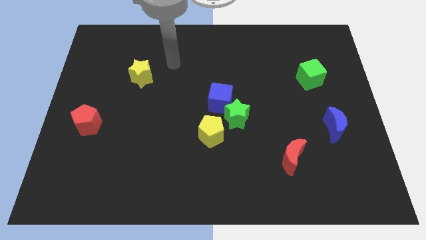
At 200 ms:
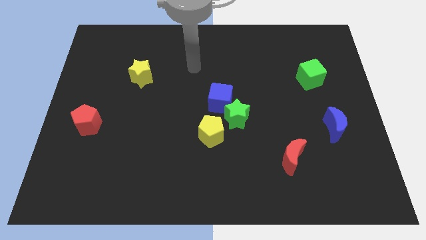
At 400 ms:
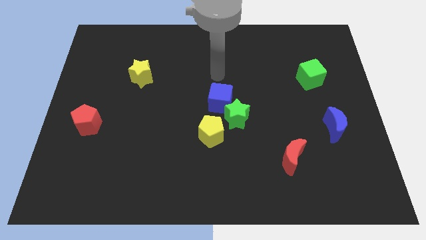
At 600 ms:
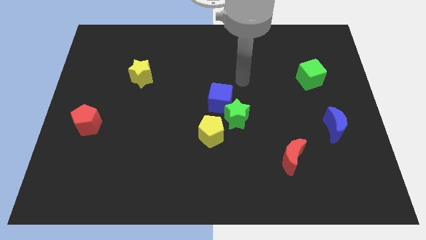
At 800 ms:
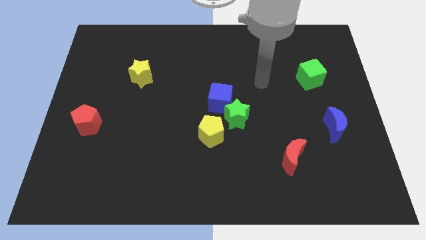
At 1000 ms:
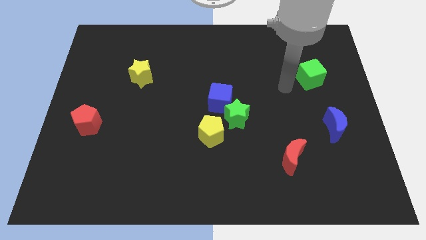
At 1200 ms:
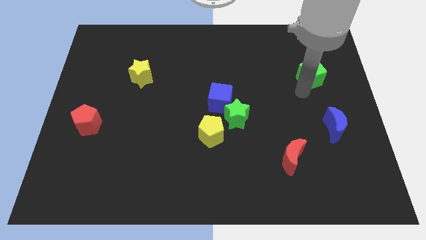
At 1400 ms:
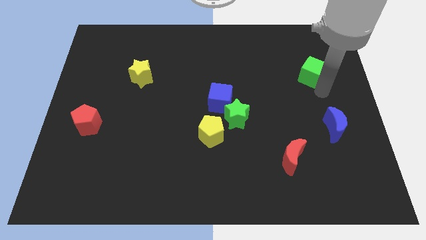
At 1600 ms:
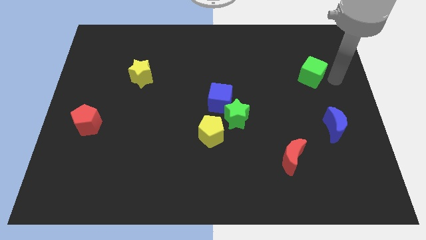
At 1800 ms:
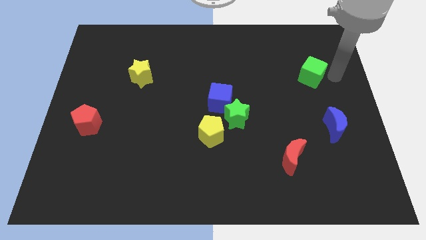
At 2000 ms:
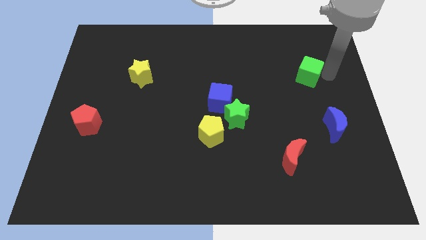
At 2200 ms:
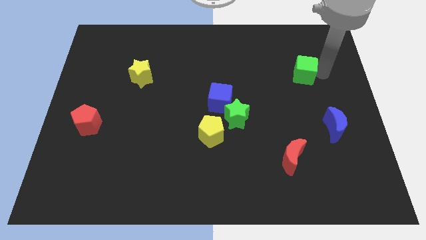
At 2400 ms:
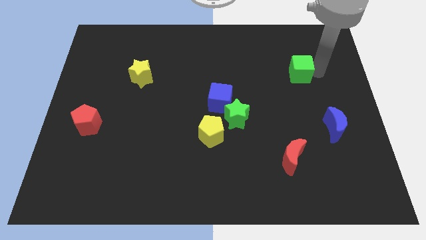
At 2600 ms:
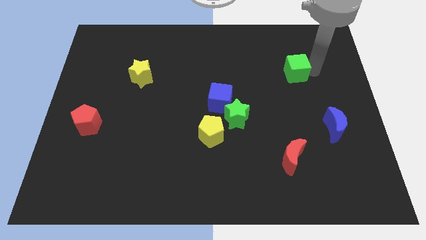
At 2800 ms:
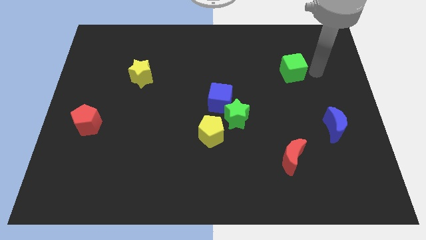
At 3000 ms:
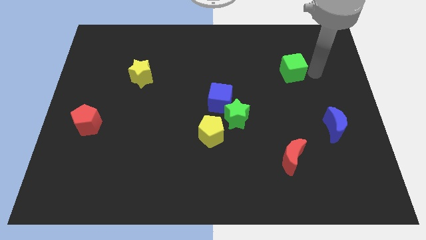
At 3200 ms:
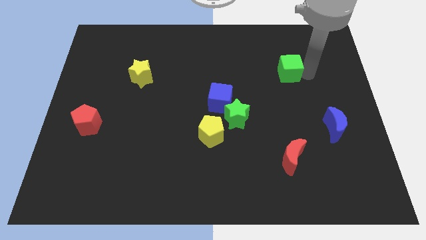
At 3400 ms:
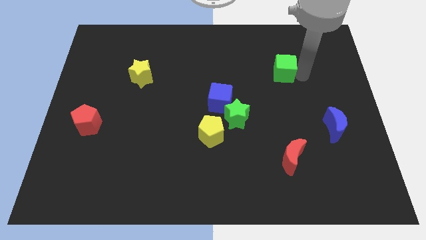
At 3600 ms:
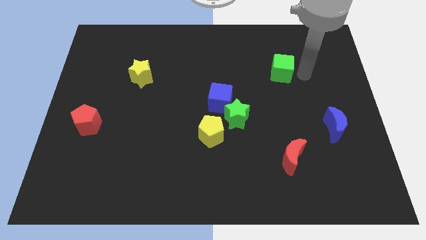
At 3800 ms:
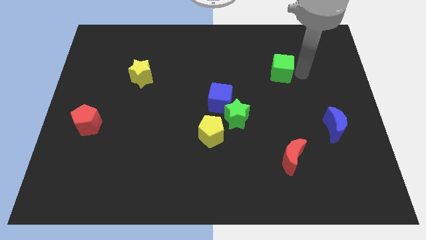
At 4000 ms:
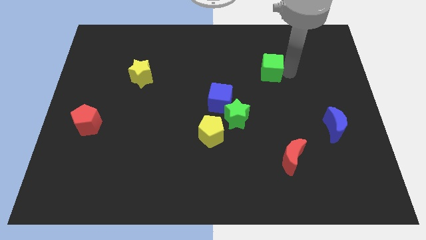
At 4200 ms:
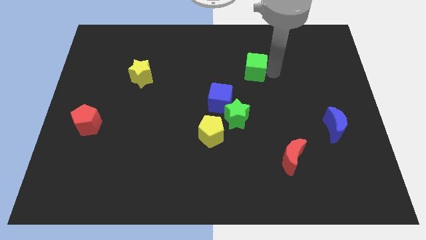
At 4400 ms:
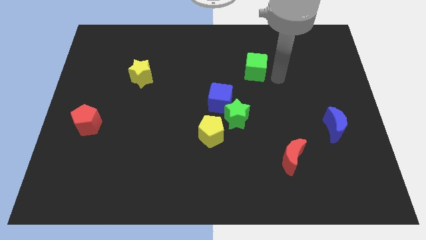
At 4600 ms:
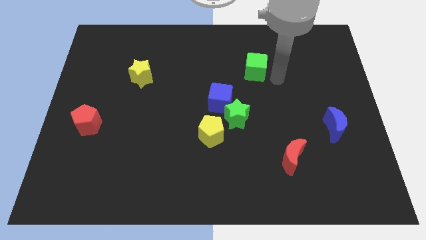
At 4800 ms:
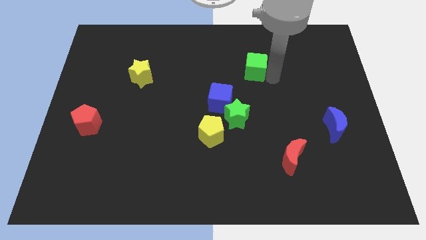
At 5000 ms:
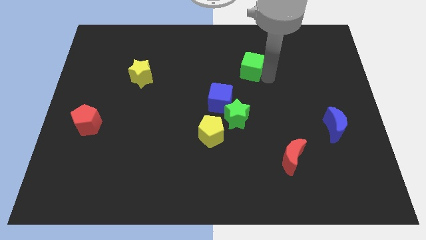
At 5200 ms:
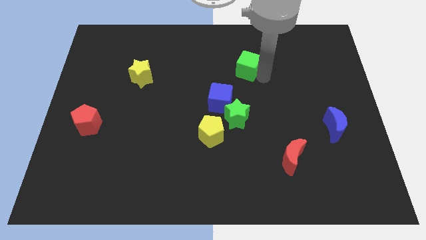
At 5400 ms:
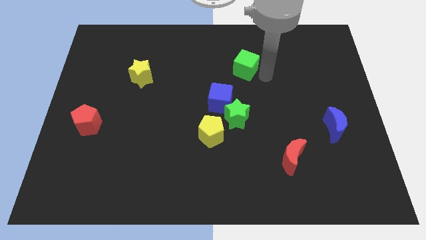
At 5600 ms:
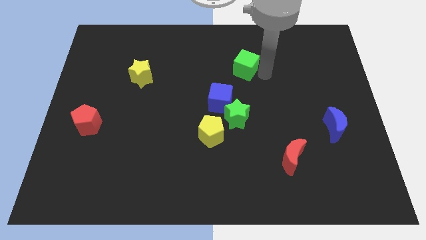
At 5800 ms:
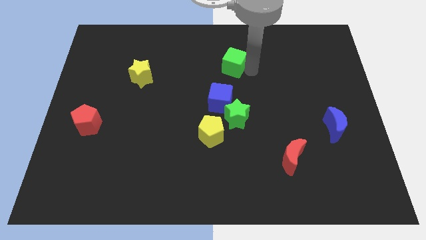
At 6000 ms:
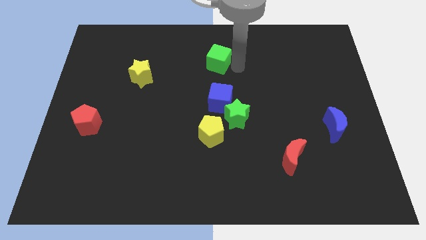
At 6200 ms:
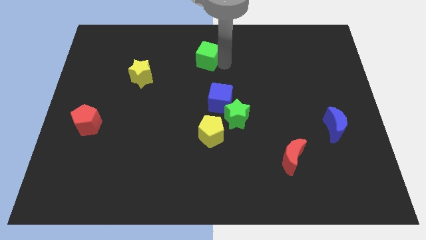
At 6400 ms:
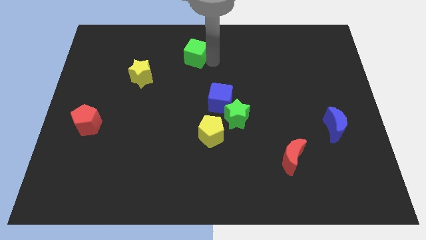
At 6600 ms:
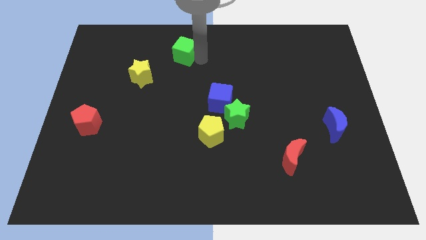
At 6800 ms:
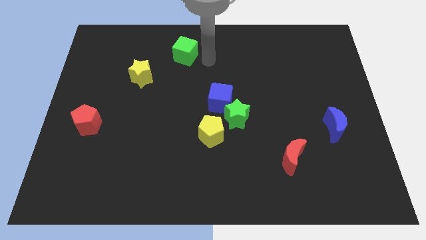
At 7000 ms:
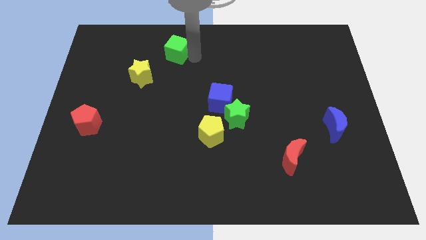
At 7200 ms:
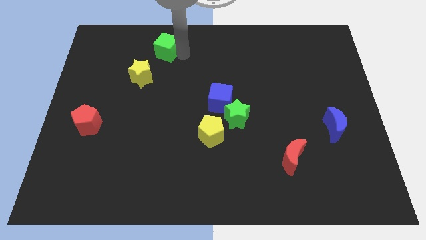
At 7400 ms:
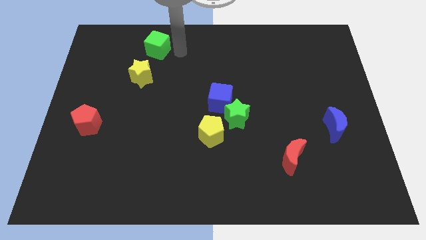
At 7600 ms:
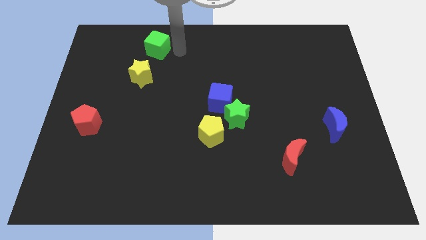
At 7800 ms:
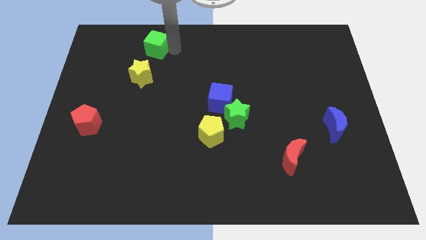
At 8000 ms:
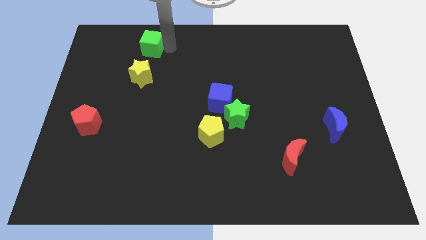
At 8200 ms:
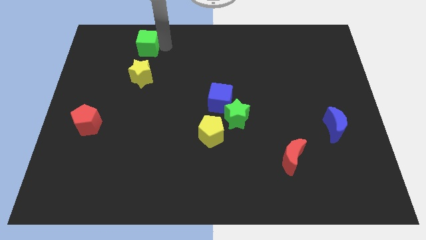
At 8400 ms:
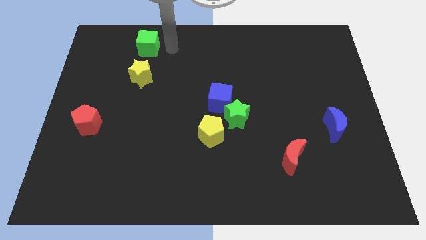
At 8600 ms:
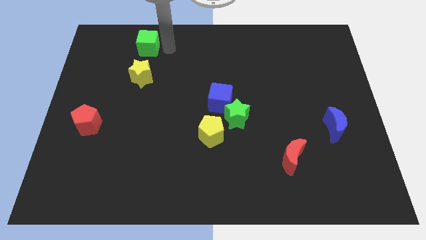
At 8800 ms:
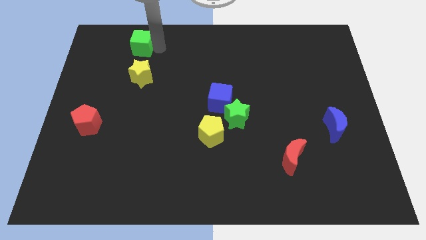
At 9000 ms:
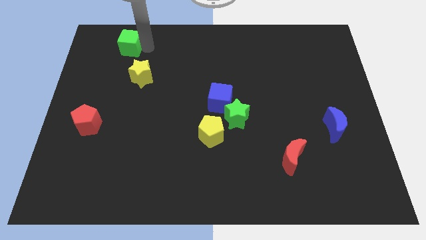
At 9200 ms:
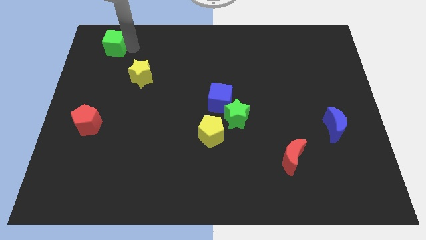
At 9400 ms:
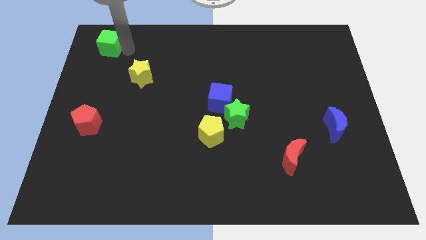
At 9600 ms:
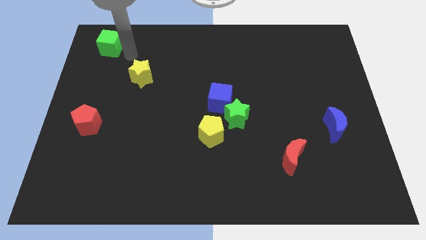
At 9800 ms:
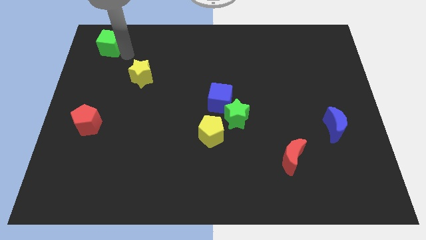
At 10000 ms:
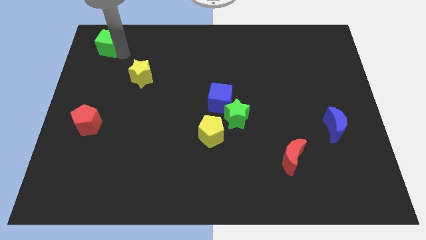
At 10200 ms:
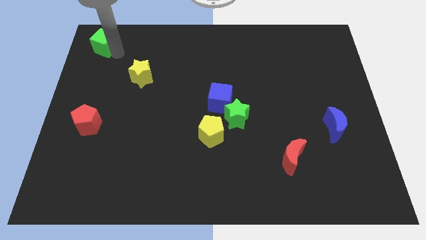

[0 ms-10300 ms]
put the green cube to the upper left corner

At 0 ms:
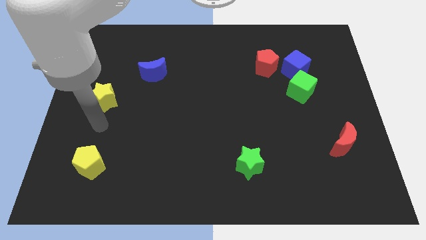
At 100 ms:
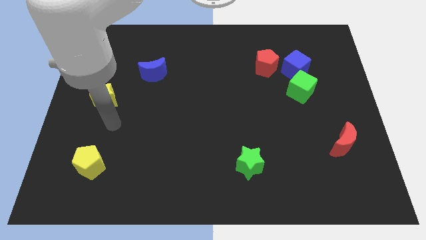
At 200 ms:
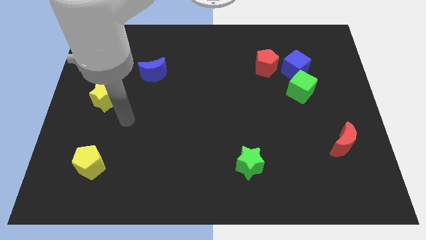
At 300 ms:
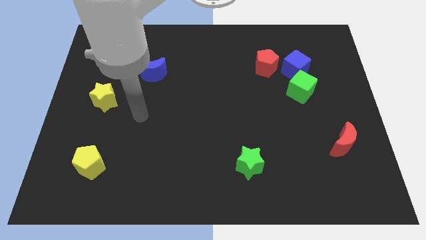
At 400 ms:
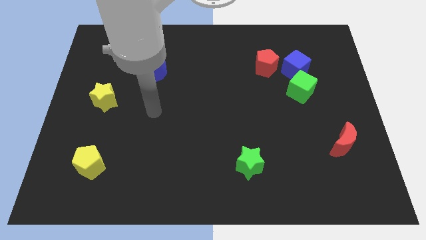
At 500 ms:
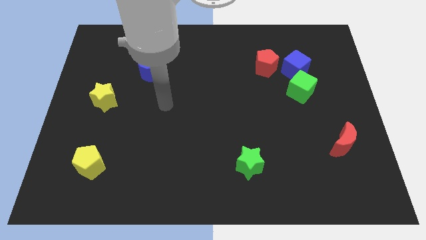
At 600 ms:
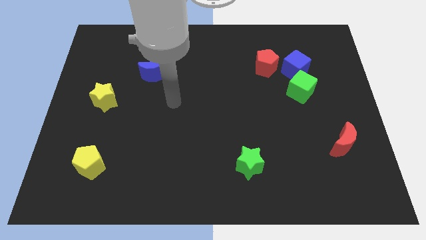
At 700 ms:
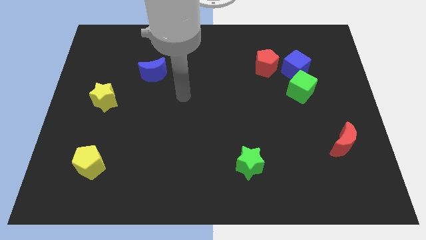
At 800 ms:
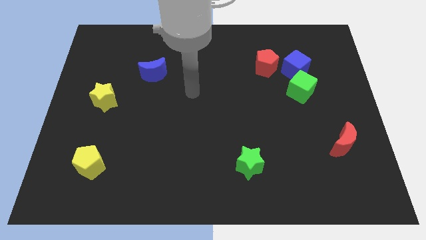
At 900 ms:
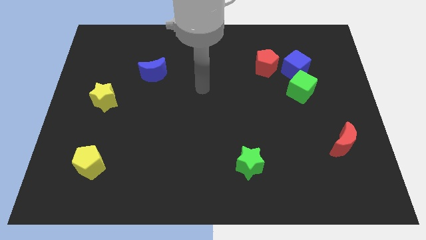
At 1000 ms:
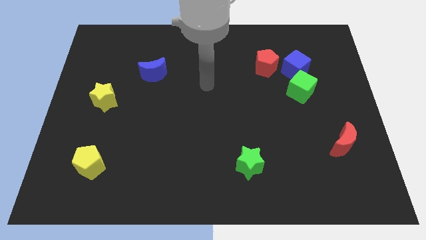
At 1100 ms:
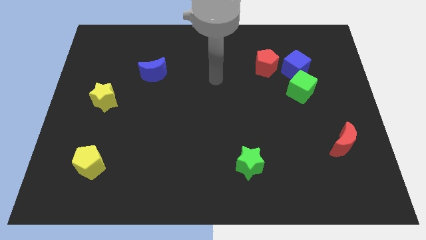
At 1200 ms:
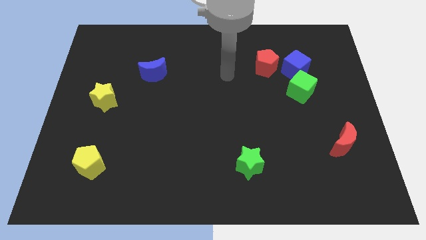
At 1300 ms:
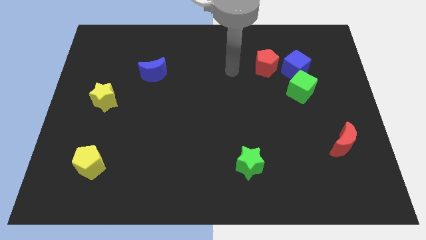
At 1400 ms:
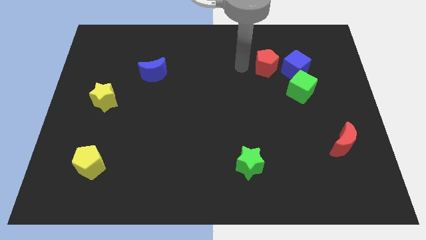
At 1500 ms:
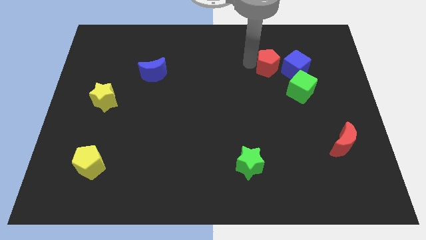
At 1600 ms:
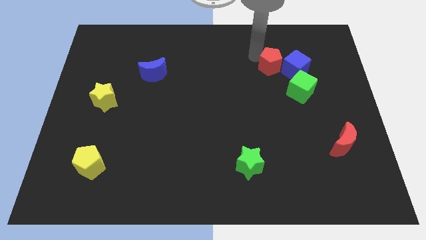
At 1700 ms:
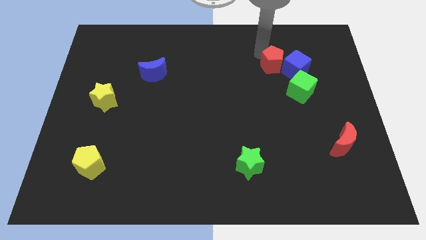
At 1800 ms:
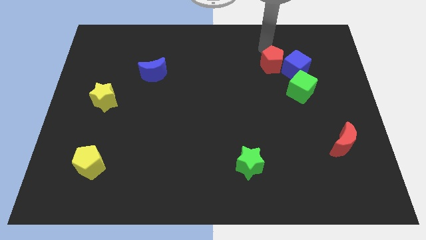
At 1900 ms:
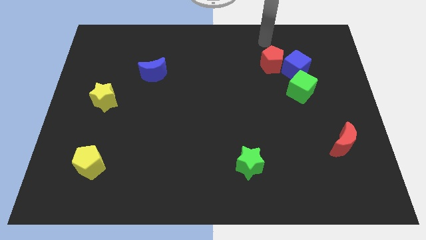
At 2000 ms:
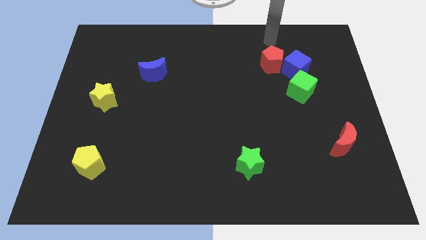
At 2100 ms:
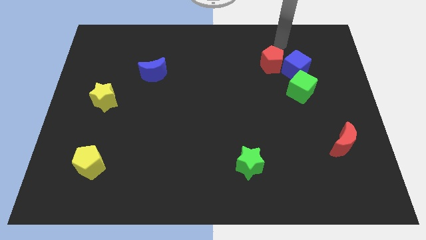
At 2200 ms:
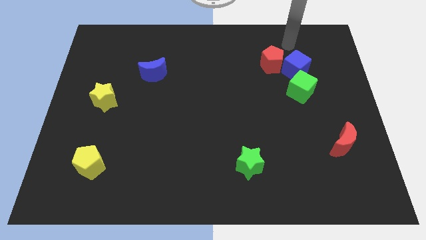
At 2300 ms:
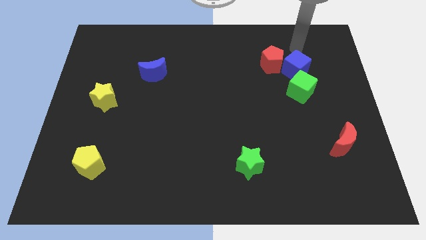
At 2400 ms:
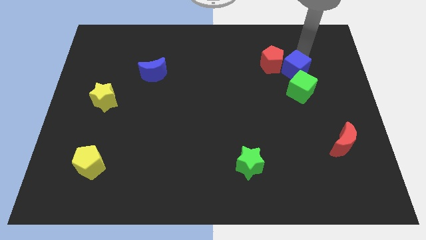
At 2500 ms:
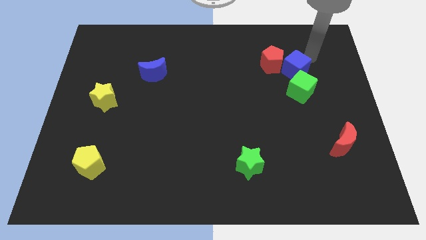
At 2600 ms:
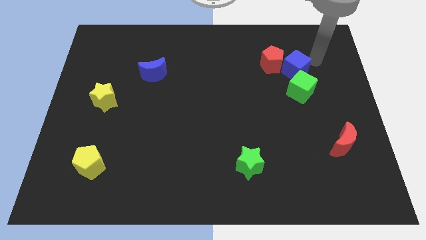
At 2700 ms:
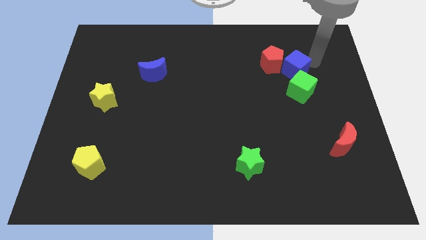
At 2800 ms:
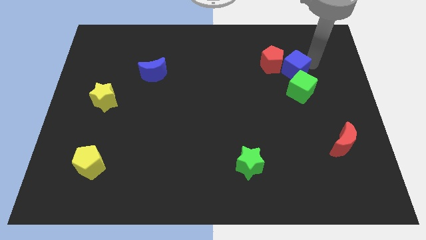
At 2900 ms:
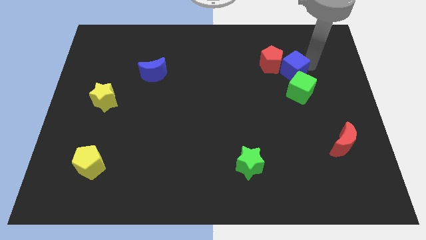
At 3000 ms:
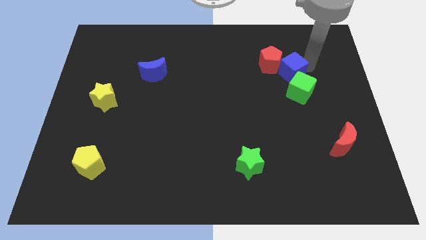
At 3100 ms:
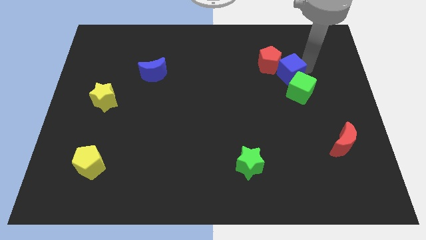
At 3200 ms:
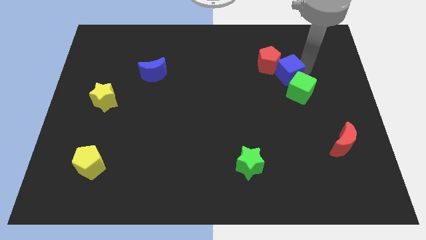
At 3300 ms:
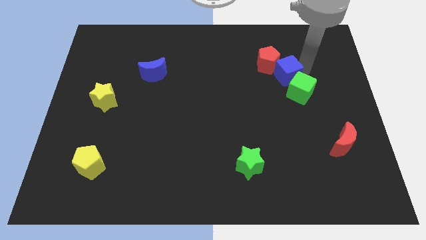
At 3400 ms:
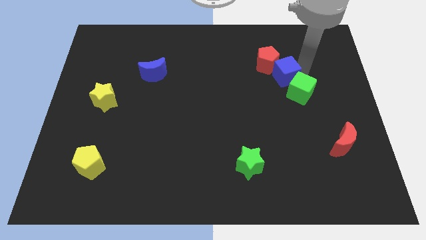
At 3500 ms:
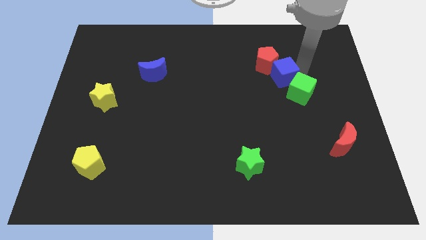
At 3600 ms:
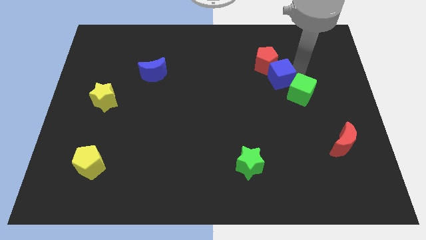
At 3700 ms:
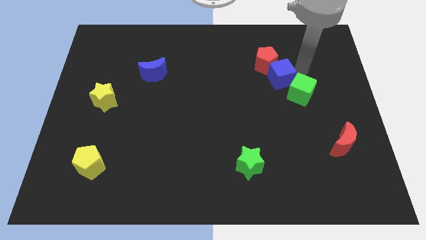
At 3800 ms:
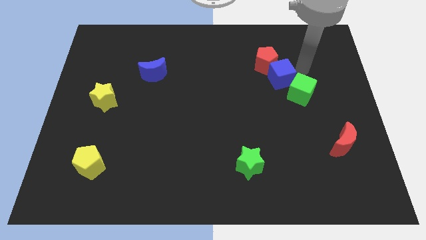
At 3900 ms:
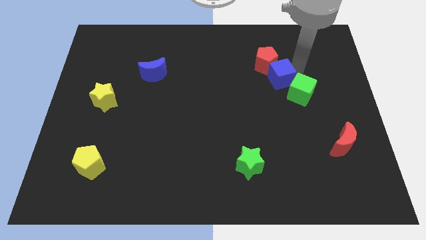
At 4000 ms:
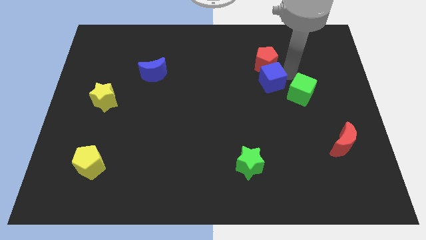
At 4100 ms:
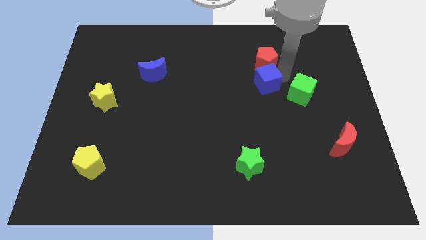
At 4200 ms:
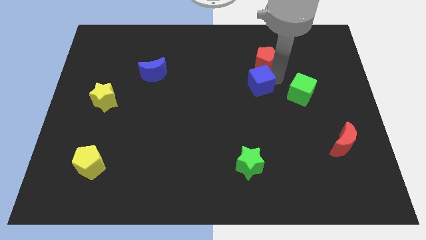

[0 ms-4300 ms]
put the blue cube to the middle
